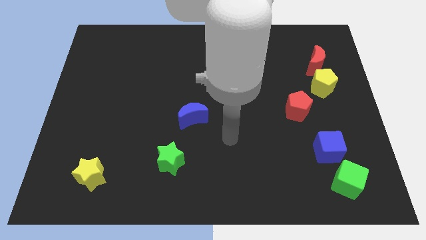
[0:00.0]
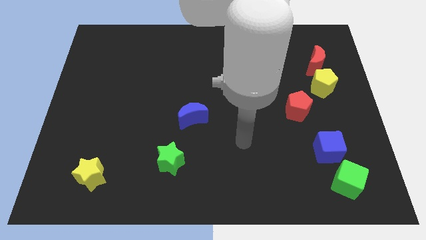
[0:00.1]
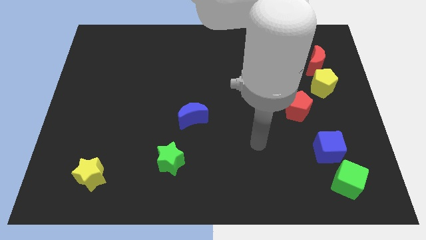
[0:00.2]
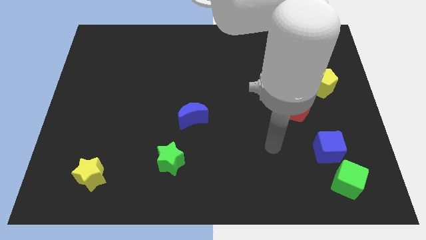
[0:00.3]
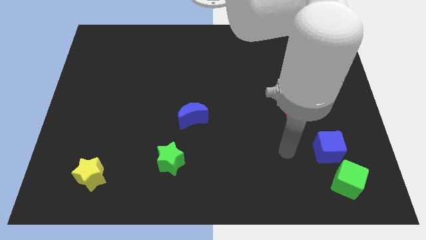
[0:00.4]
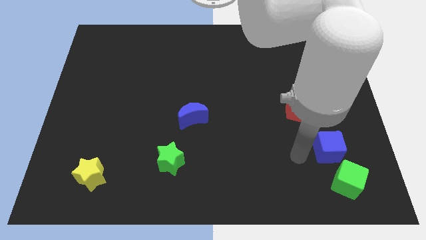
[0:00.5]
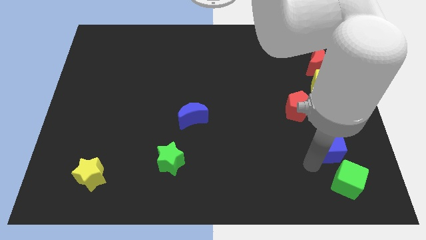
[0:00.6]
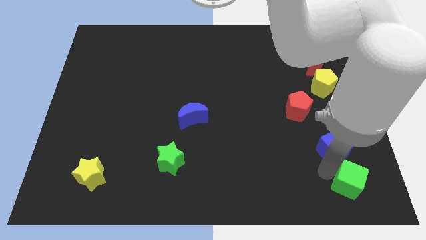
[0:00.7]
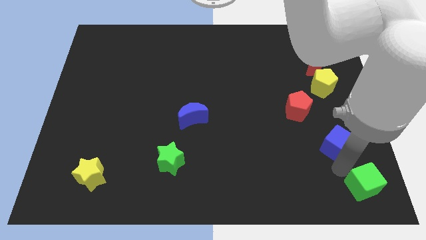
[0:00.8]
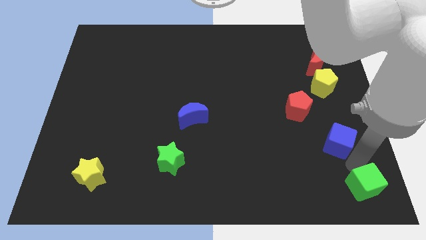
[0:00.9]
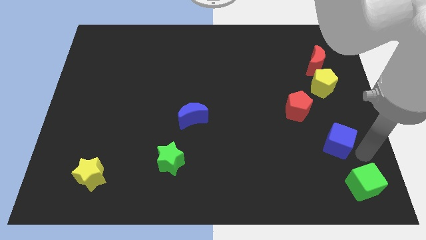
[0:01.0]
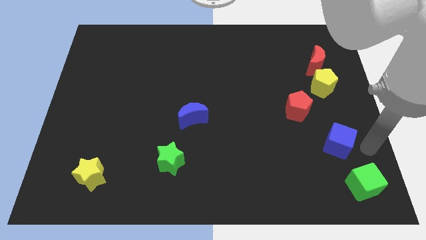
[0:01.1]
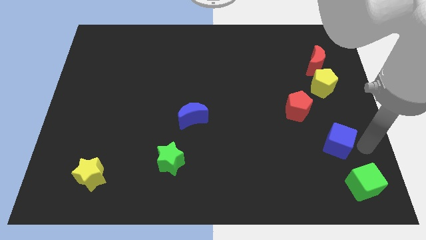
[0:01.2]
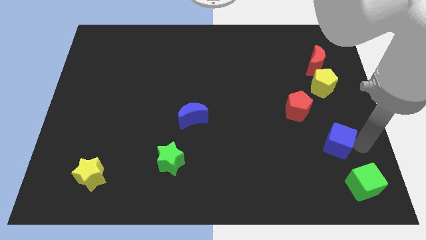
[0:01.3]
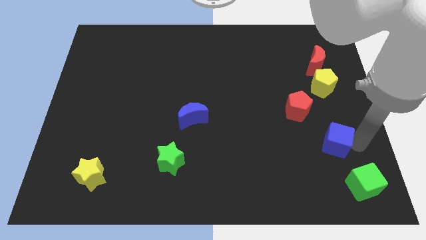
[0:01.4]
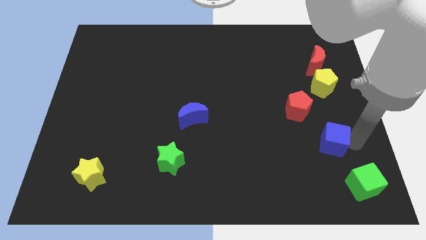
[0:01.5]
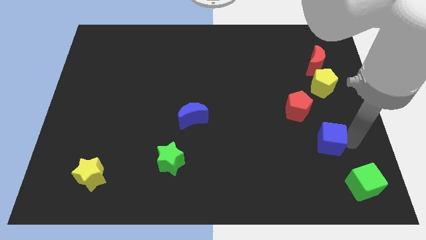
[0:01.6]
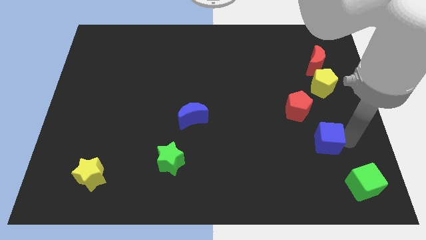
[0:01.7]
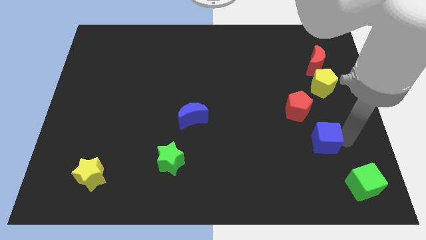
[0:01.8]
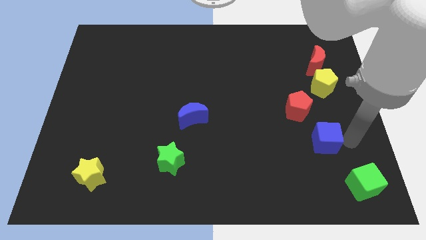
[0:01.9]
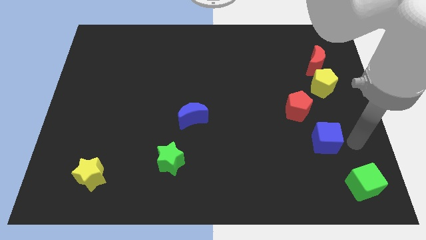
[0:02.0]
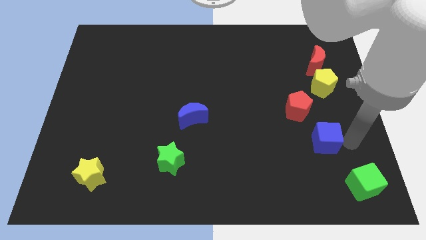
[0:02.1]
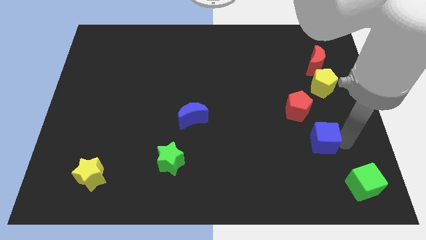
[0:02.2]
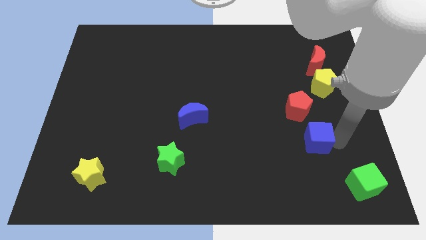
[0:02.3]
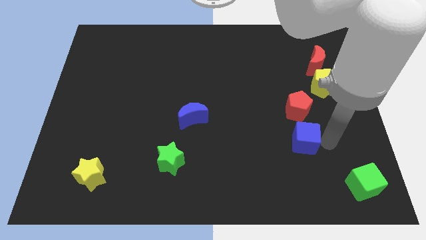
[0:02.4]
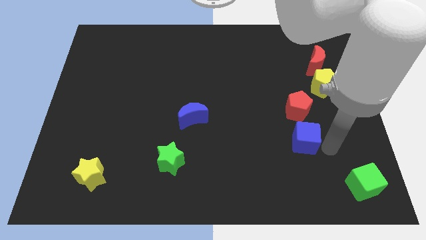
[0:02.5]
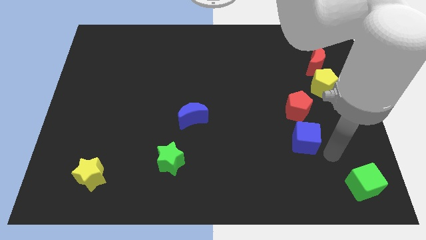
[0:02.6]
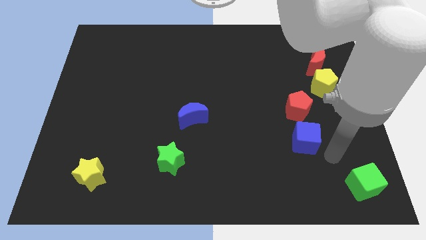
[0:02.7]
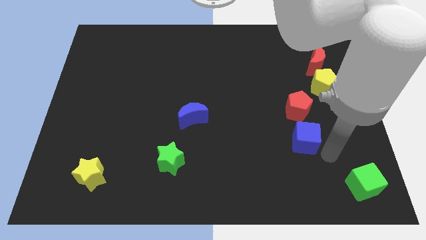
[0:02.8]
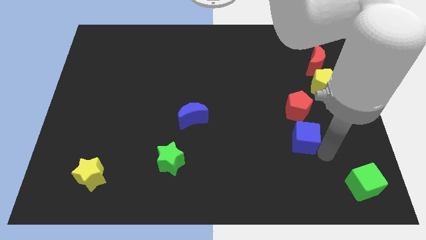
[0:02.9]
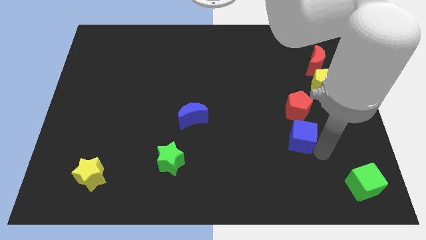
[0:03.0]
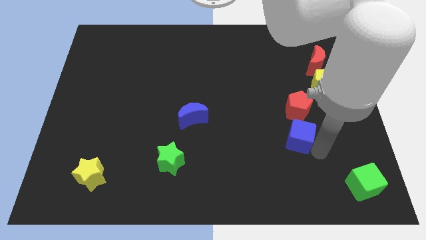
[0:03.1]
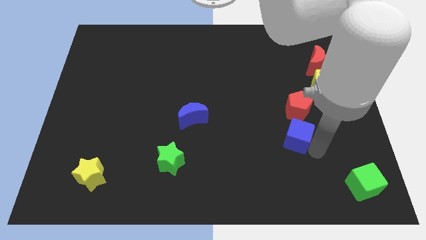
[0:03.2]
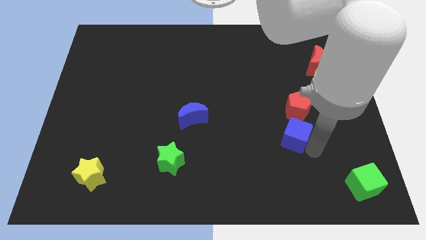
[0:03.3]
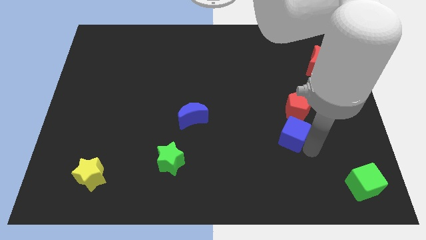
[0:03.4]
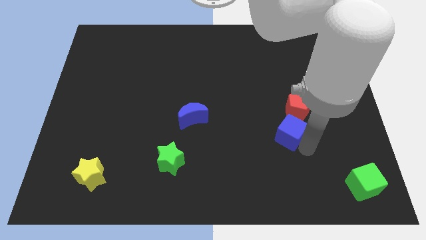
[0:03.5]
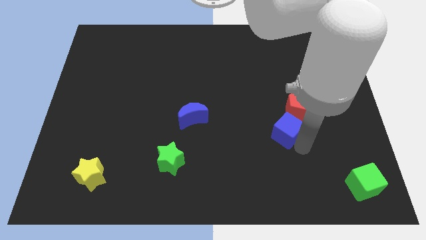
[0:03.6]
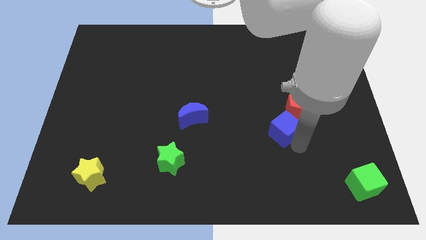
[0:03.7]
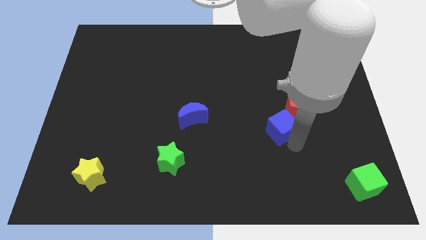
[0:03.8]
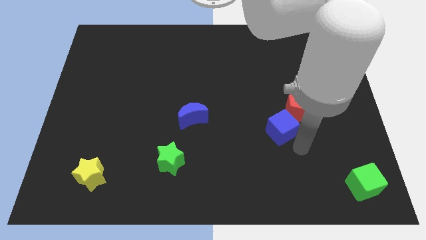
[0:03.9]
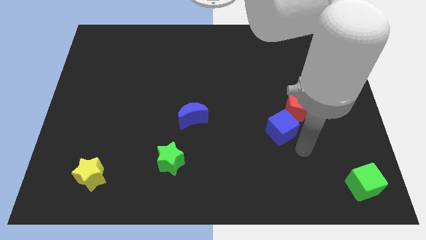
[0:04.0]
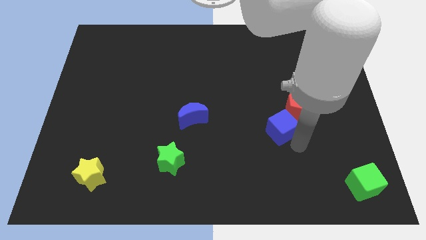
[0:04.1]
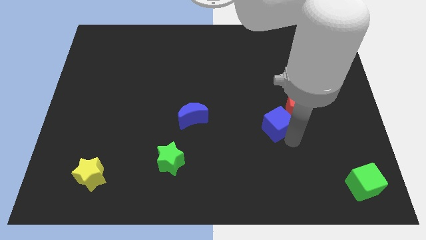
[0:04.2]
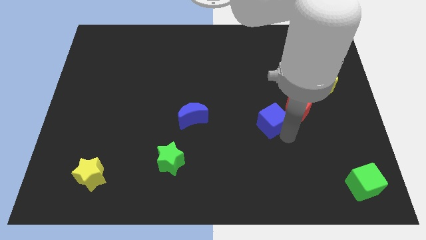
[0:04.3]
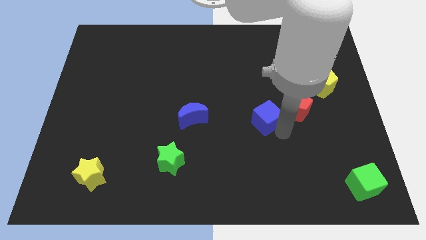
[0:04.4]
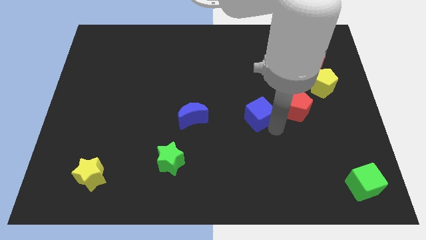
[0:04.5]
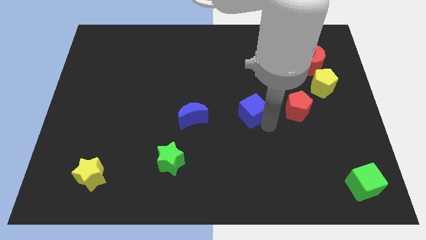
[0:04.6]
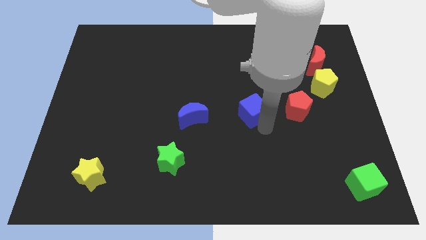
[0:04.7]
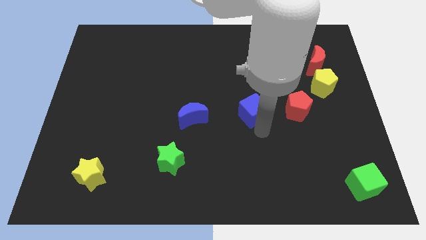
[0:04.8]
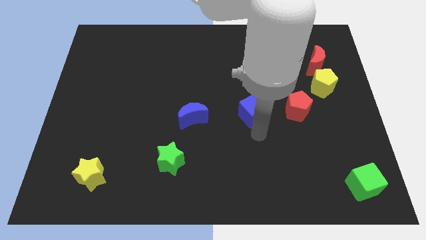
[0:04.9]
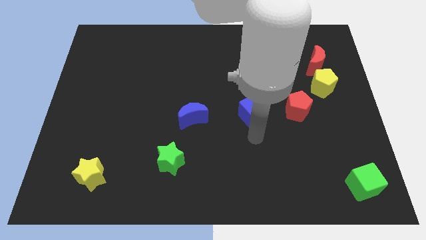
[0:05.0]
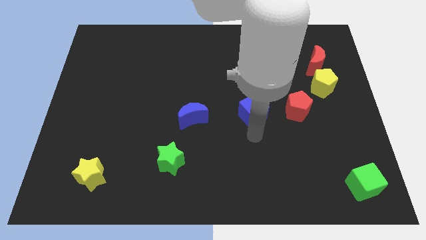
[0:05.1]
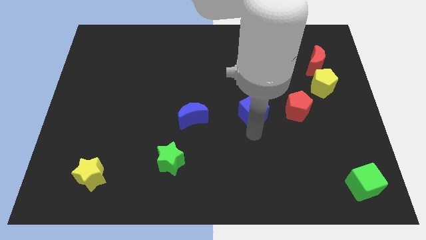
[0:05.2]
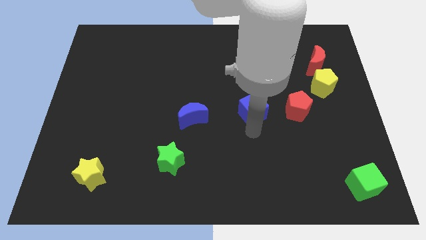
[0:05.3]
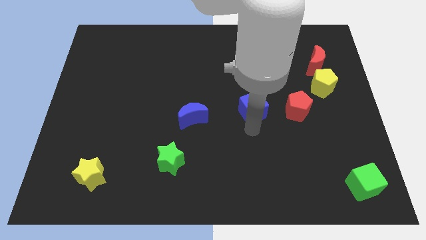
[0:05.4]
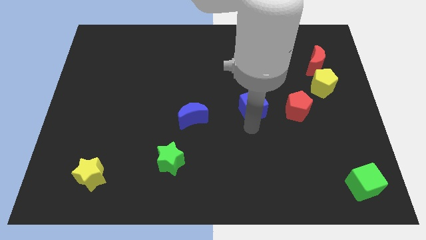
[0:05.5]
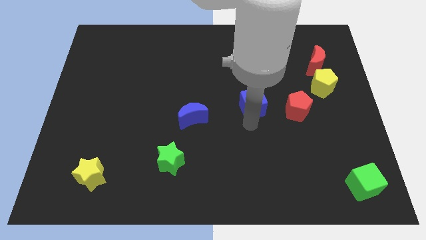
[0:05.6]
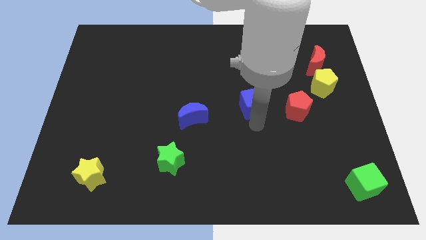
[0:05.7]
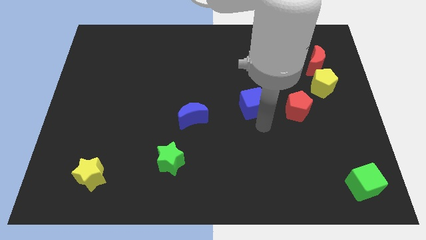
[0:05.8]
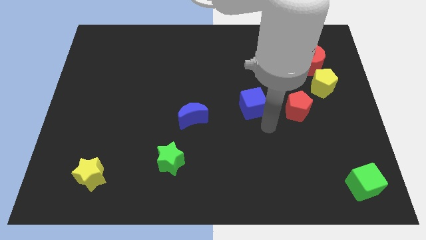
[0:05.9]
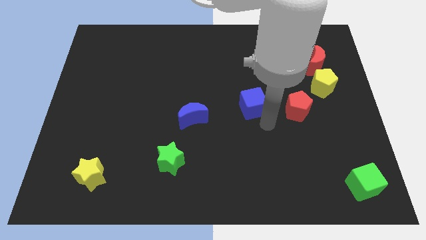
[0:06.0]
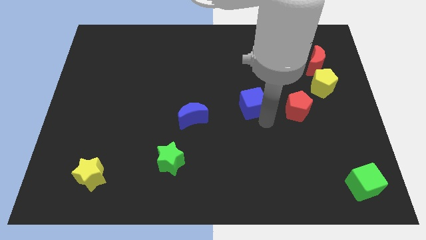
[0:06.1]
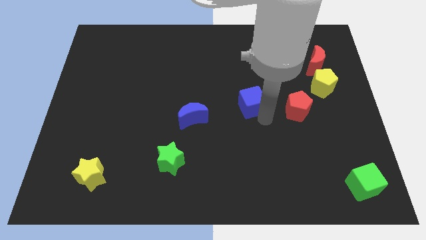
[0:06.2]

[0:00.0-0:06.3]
move the blue cube up and then to the left

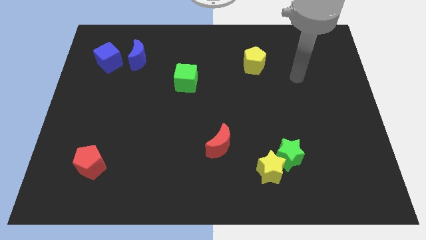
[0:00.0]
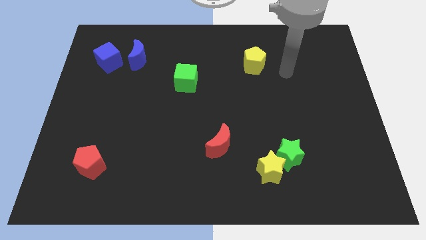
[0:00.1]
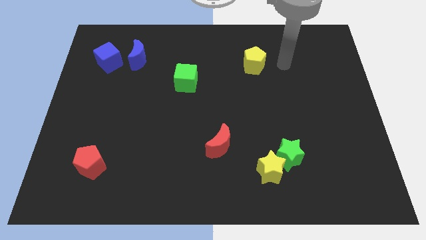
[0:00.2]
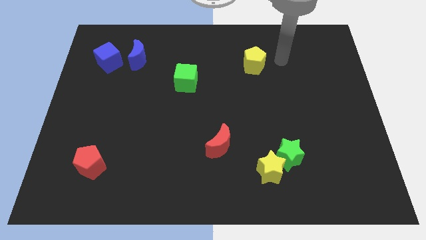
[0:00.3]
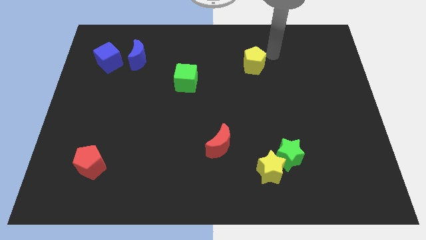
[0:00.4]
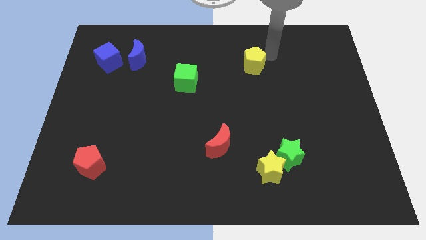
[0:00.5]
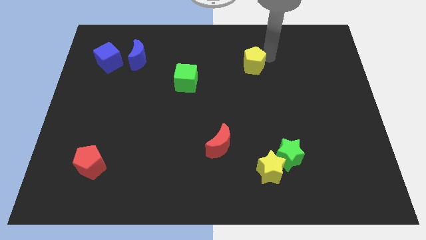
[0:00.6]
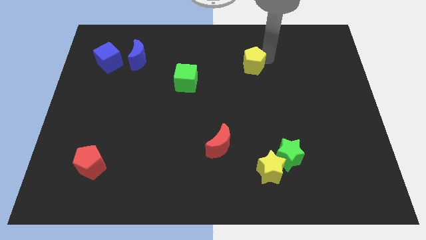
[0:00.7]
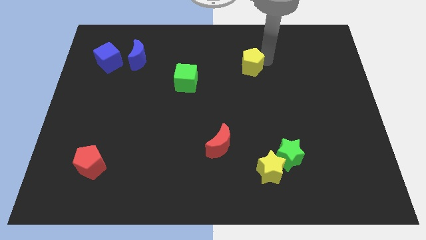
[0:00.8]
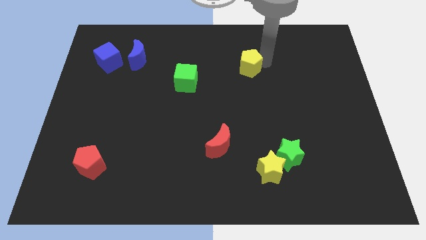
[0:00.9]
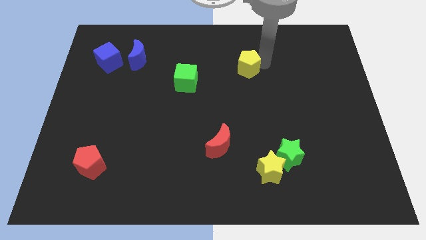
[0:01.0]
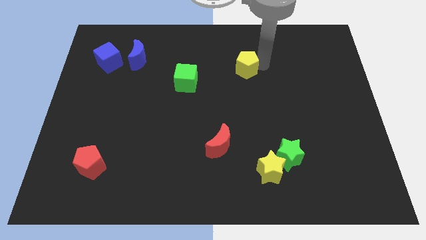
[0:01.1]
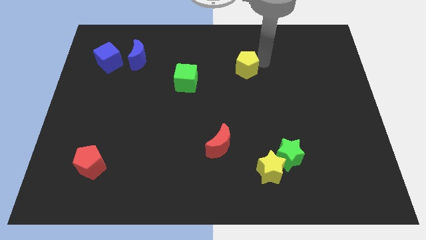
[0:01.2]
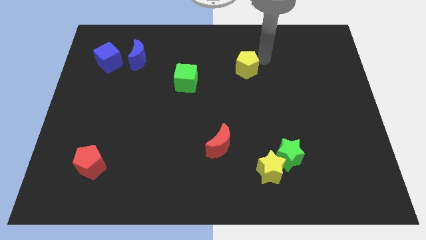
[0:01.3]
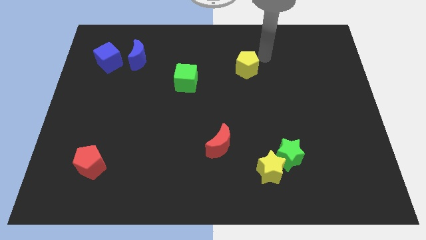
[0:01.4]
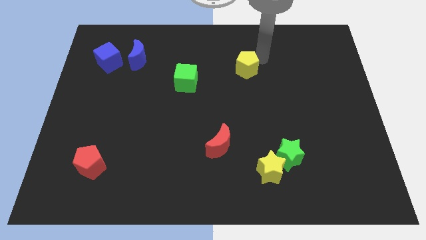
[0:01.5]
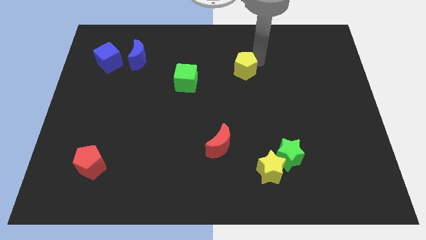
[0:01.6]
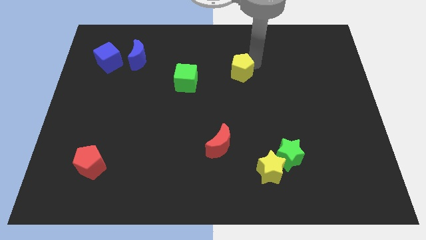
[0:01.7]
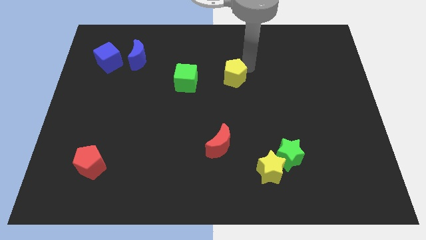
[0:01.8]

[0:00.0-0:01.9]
slide the yellow pentagon a little bit downwards and then left
